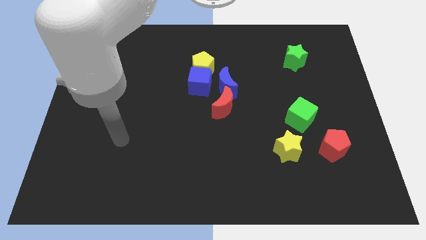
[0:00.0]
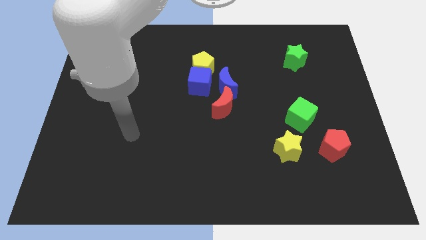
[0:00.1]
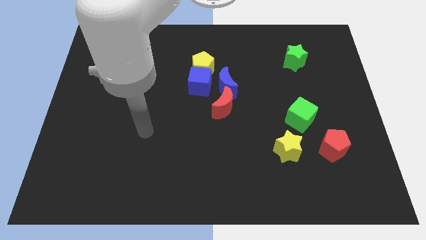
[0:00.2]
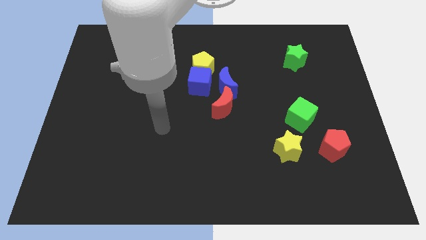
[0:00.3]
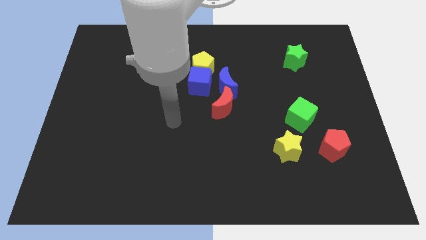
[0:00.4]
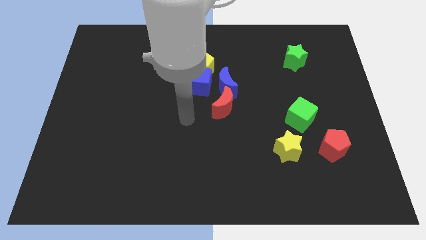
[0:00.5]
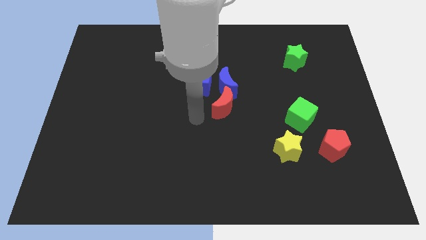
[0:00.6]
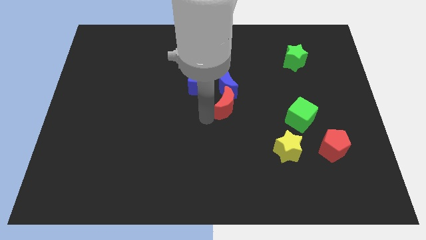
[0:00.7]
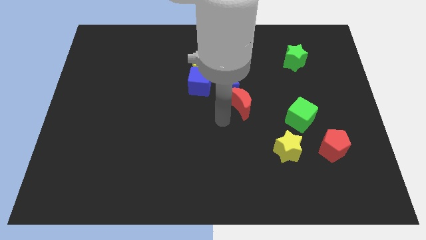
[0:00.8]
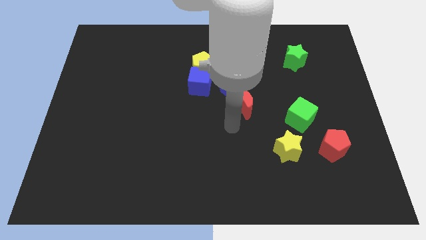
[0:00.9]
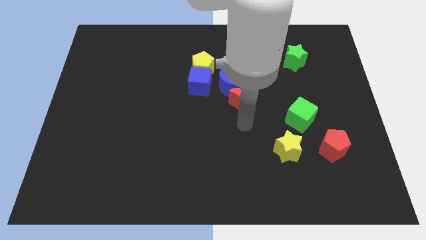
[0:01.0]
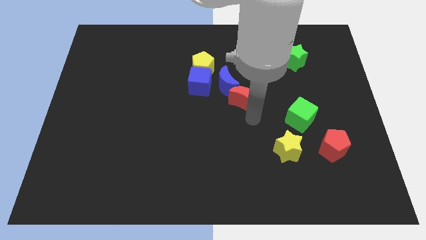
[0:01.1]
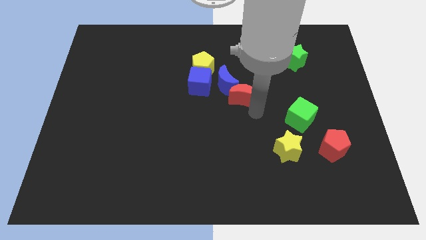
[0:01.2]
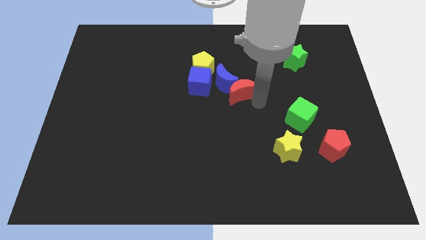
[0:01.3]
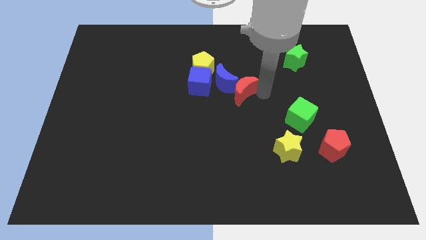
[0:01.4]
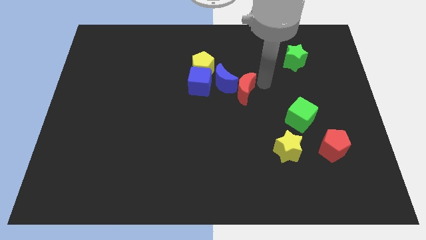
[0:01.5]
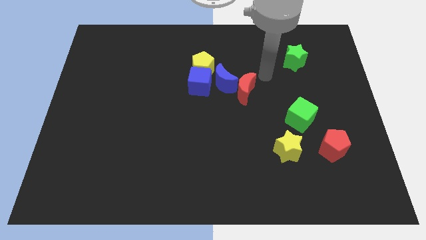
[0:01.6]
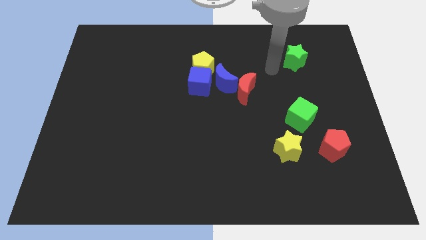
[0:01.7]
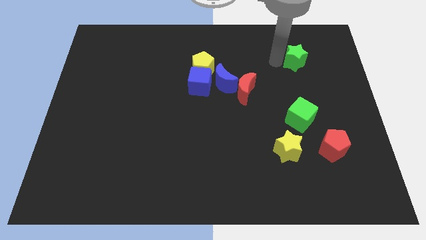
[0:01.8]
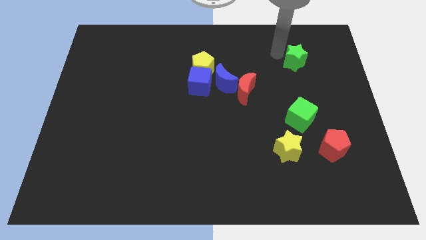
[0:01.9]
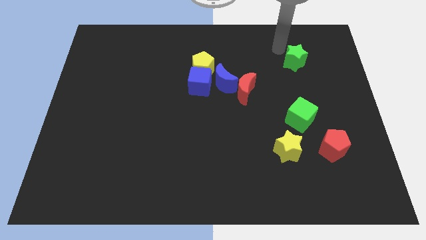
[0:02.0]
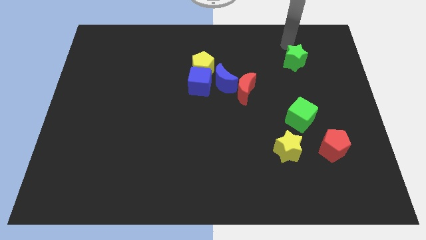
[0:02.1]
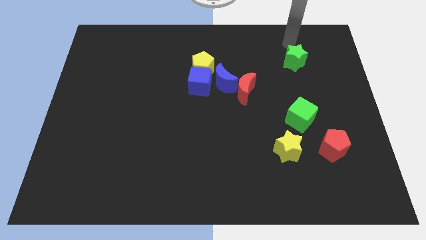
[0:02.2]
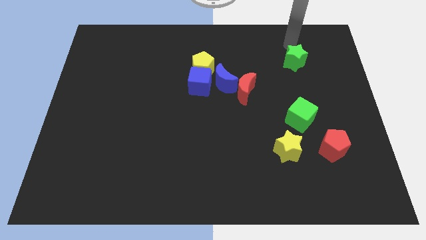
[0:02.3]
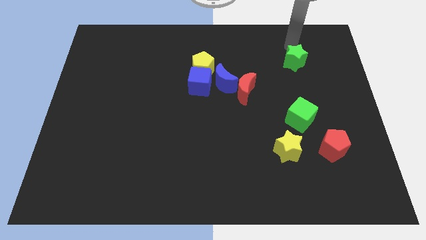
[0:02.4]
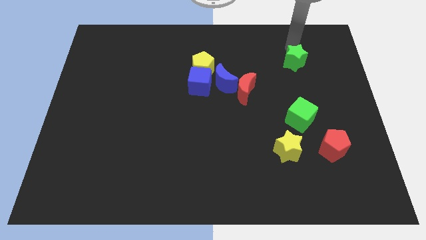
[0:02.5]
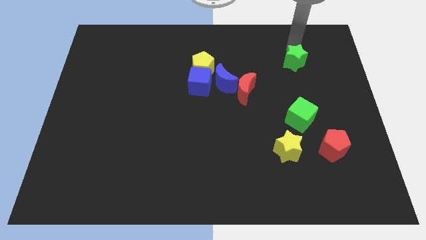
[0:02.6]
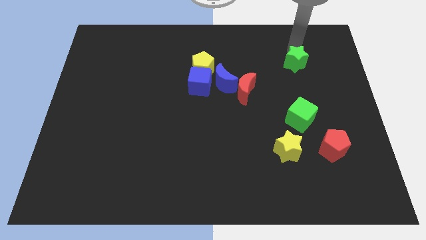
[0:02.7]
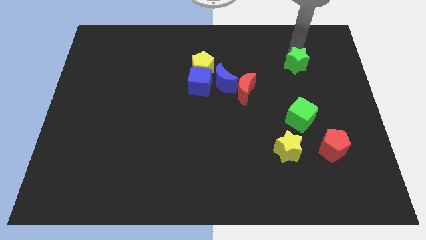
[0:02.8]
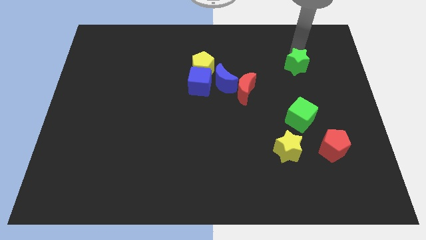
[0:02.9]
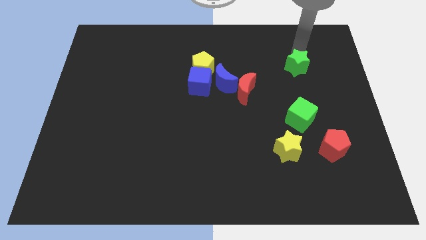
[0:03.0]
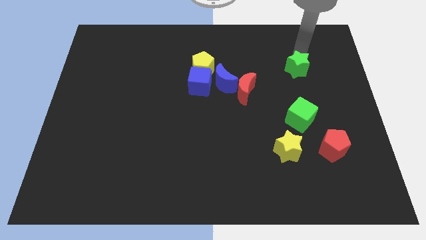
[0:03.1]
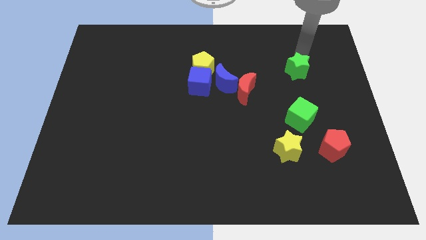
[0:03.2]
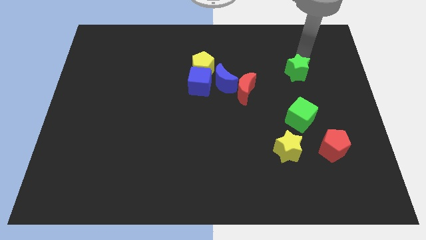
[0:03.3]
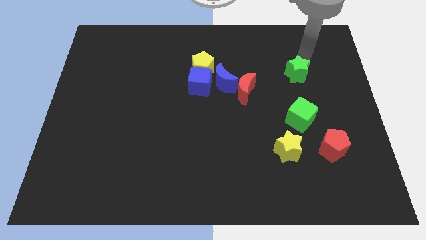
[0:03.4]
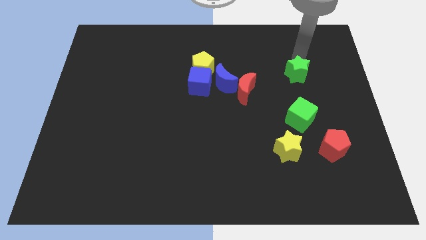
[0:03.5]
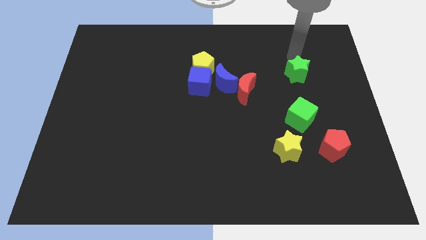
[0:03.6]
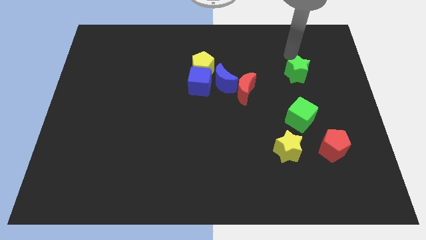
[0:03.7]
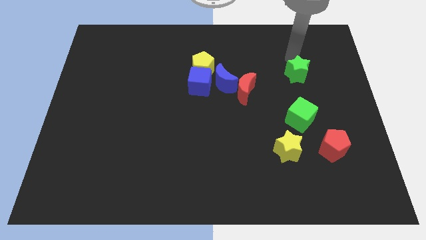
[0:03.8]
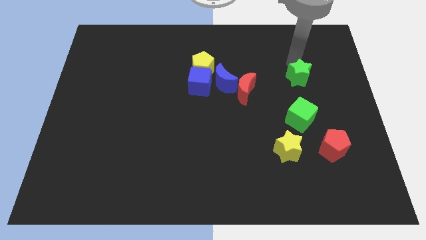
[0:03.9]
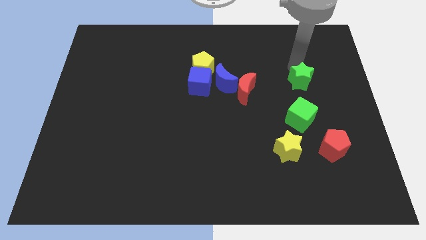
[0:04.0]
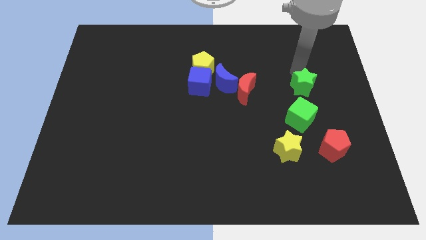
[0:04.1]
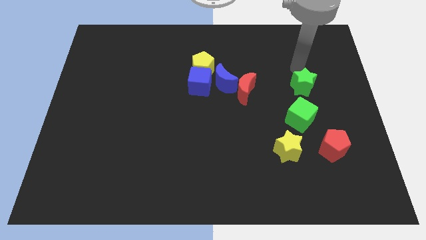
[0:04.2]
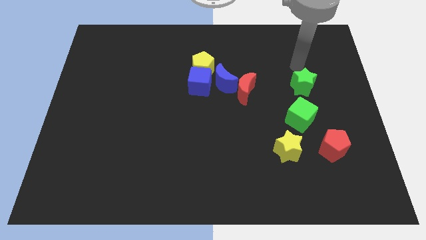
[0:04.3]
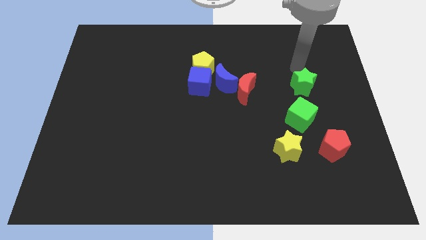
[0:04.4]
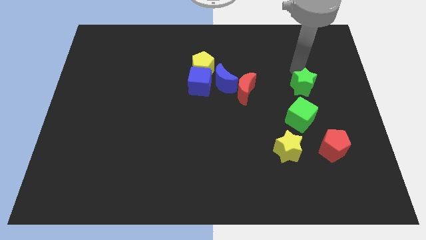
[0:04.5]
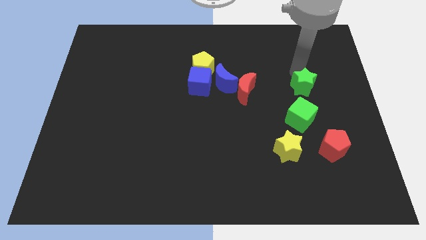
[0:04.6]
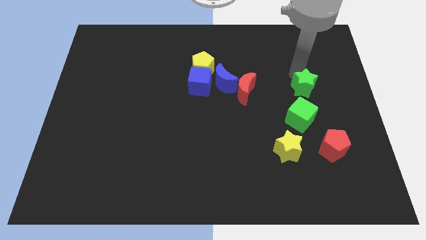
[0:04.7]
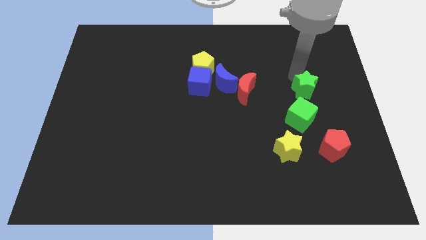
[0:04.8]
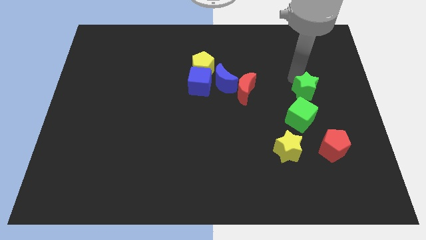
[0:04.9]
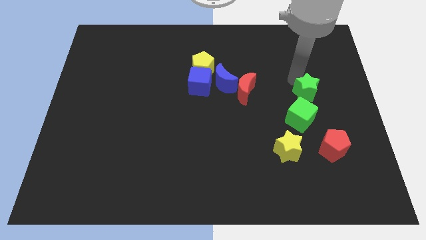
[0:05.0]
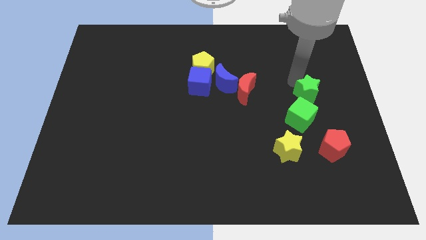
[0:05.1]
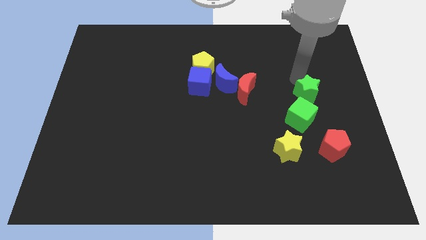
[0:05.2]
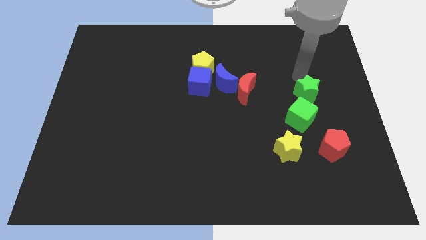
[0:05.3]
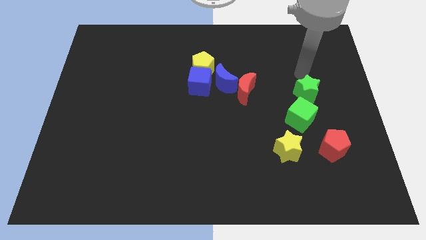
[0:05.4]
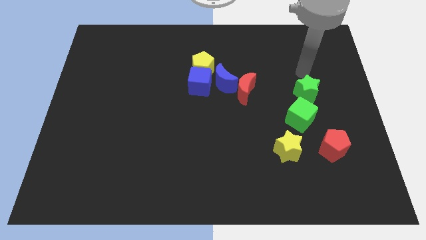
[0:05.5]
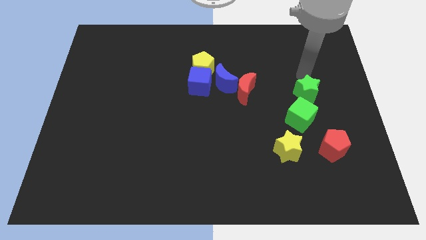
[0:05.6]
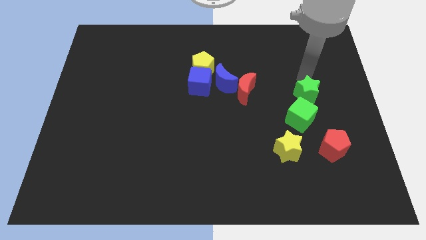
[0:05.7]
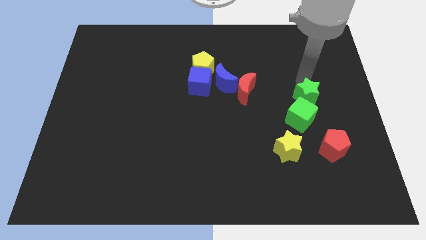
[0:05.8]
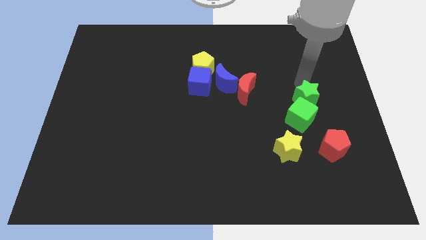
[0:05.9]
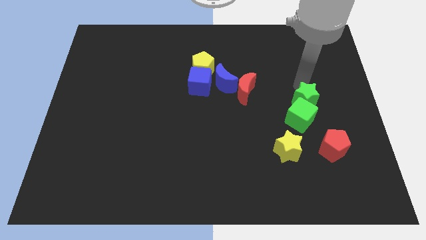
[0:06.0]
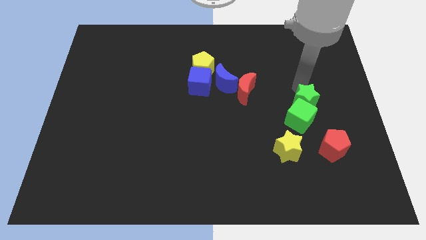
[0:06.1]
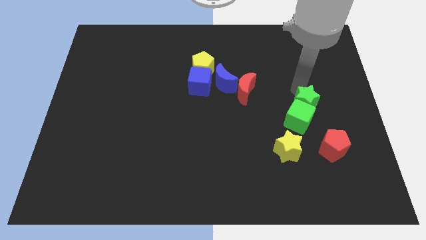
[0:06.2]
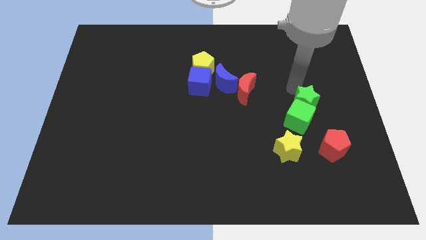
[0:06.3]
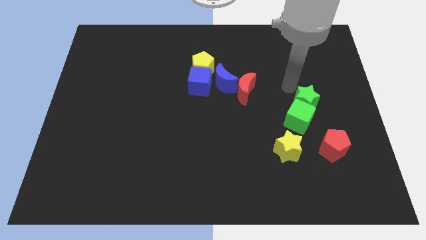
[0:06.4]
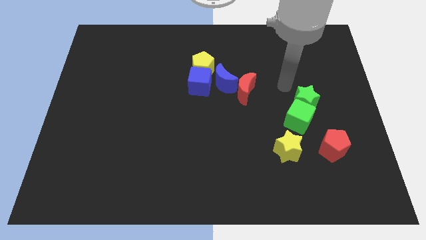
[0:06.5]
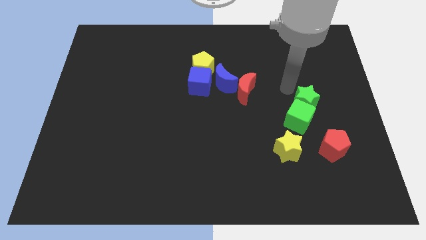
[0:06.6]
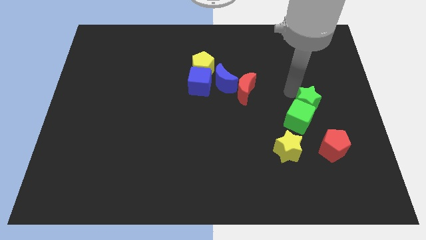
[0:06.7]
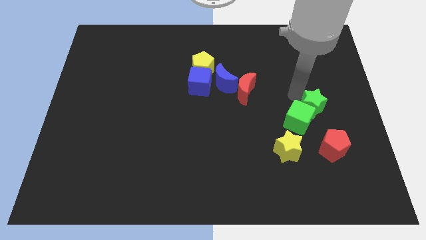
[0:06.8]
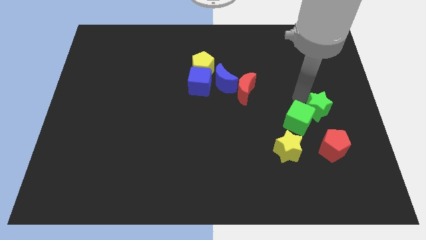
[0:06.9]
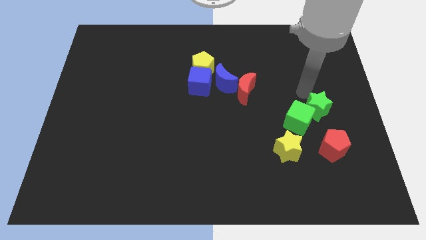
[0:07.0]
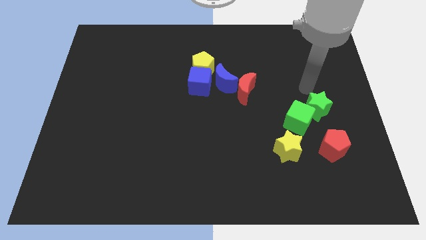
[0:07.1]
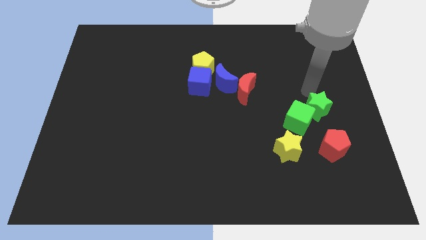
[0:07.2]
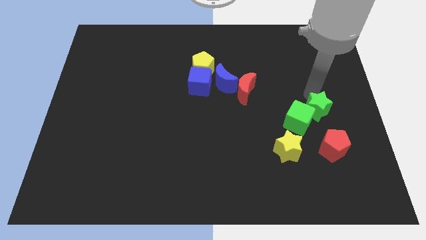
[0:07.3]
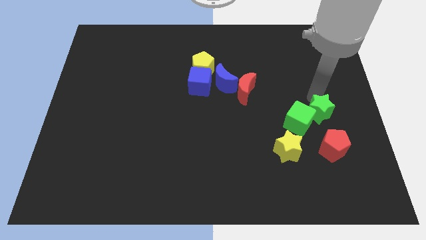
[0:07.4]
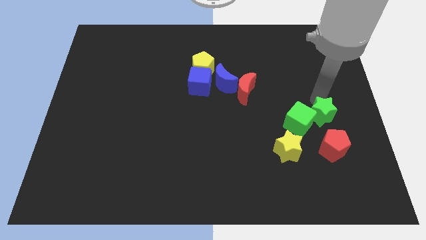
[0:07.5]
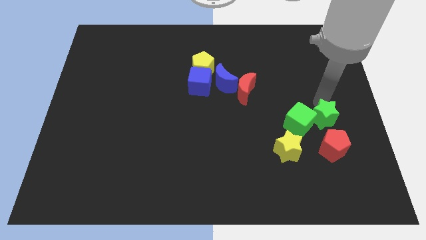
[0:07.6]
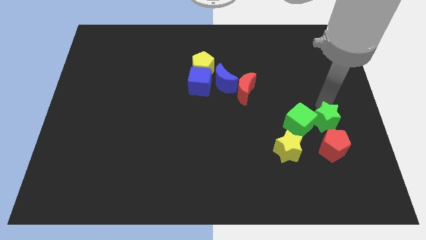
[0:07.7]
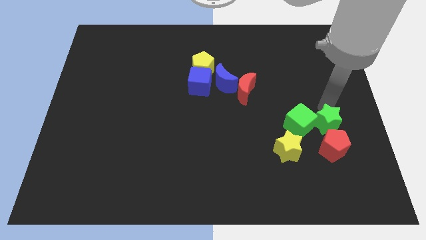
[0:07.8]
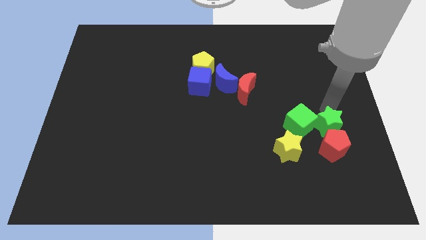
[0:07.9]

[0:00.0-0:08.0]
move the green star next to the red pentagon
